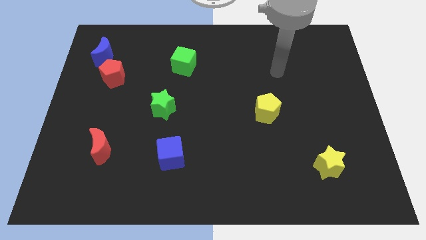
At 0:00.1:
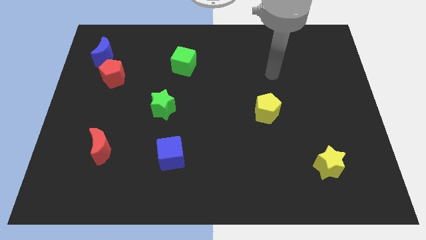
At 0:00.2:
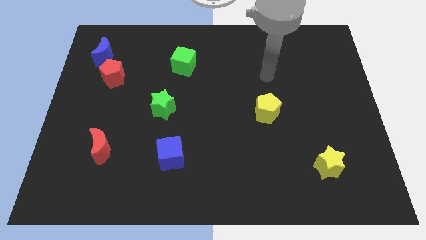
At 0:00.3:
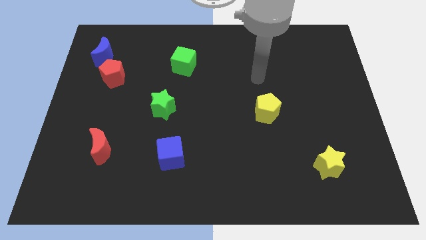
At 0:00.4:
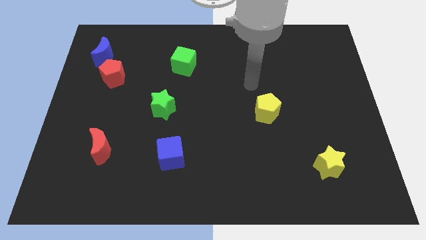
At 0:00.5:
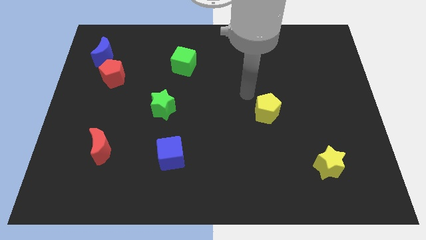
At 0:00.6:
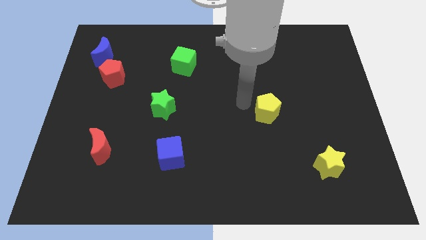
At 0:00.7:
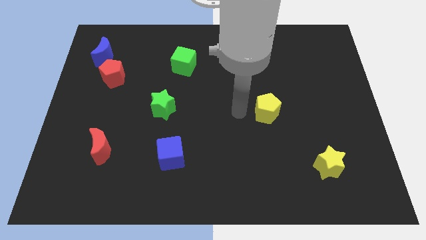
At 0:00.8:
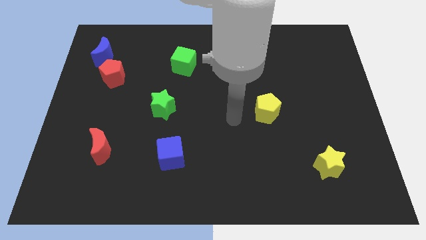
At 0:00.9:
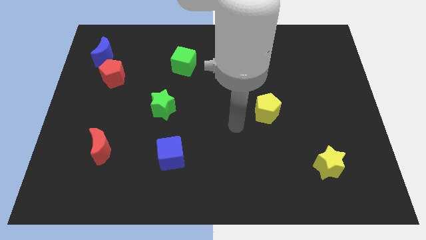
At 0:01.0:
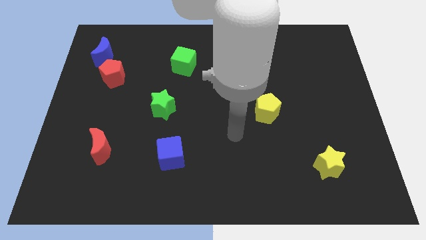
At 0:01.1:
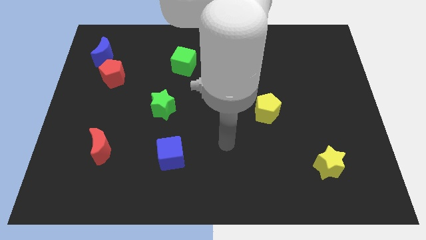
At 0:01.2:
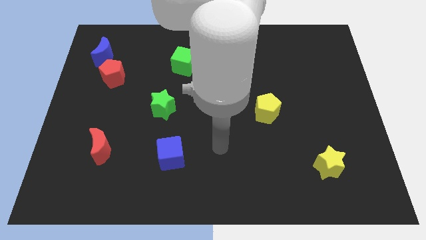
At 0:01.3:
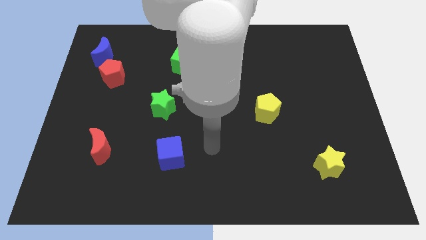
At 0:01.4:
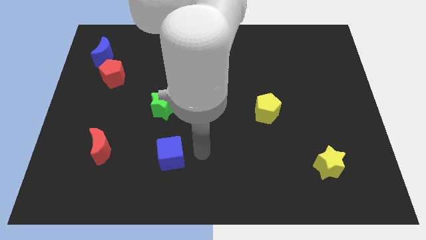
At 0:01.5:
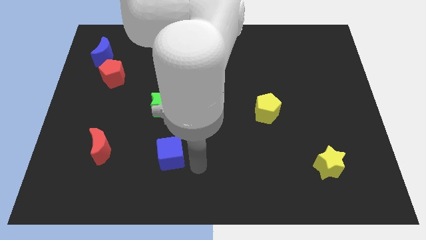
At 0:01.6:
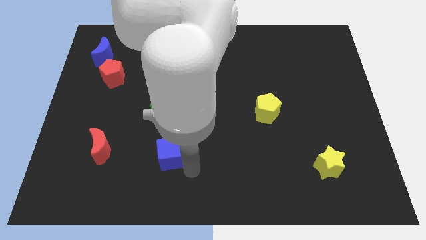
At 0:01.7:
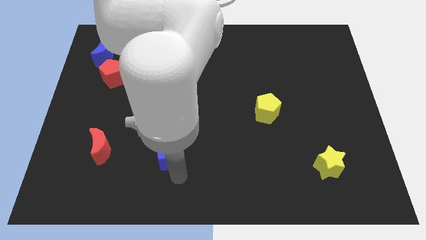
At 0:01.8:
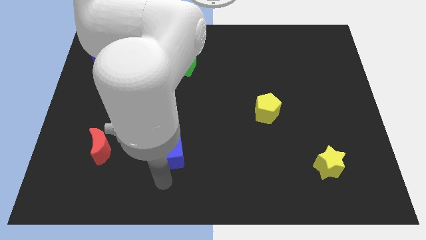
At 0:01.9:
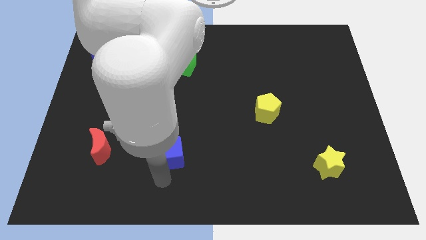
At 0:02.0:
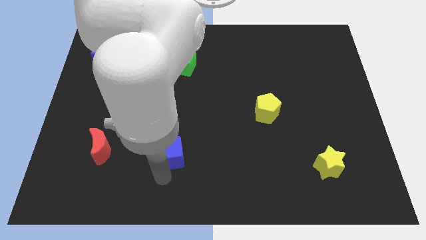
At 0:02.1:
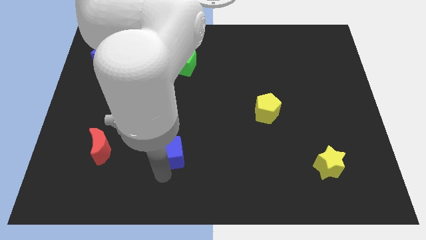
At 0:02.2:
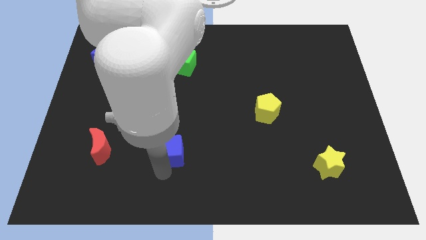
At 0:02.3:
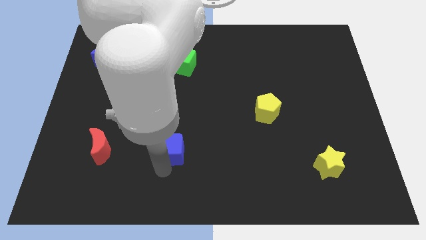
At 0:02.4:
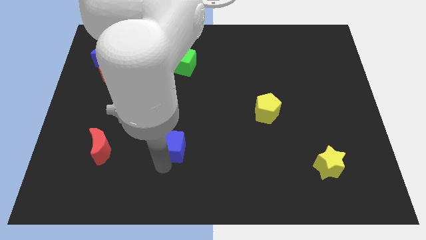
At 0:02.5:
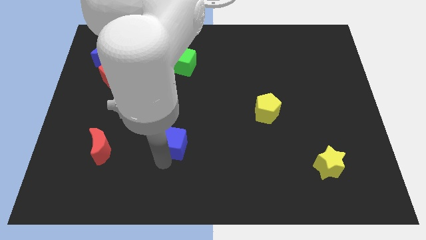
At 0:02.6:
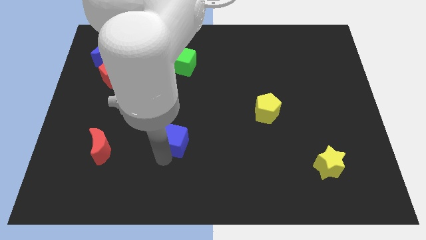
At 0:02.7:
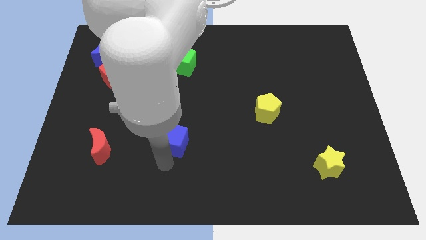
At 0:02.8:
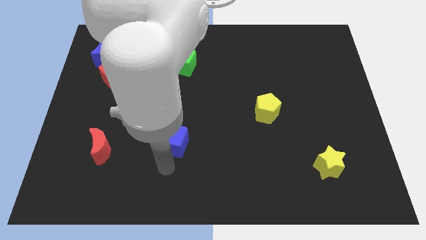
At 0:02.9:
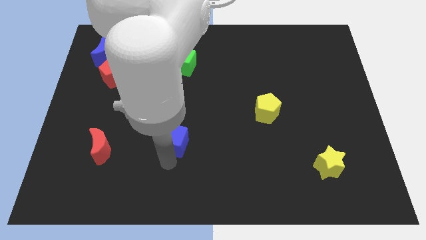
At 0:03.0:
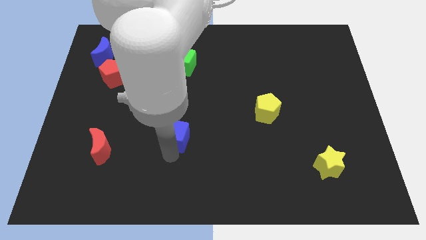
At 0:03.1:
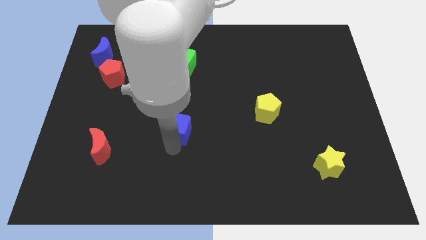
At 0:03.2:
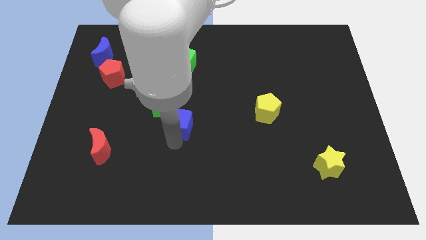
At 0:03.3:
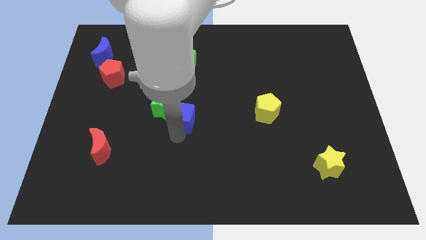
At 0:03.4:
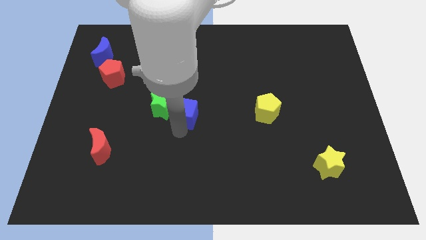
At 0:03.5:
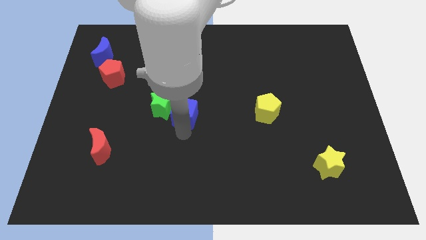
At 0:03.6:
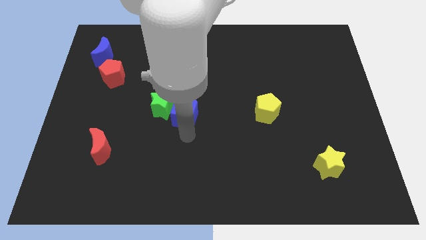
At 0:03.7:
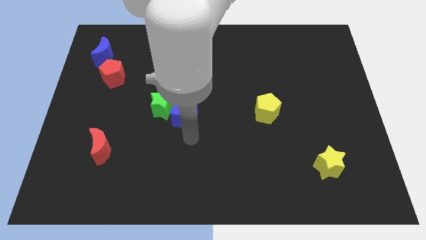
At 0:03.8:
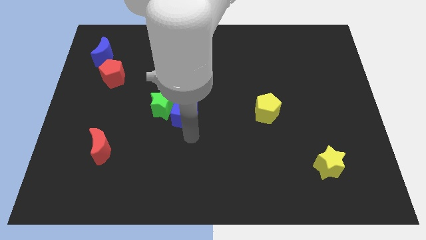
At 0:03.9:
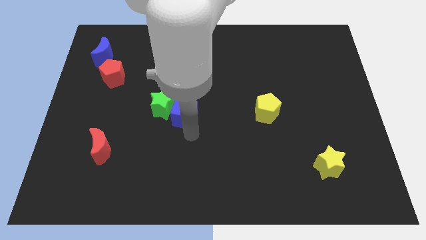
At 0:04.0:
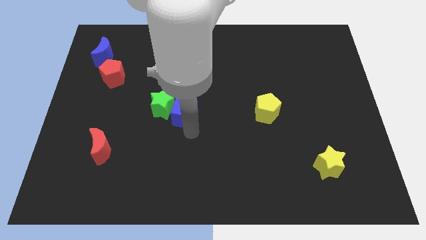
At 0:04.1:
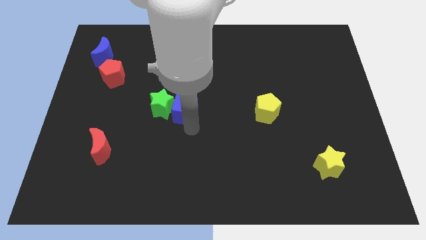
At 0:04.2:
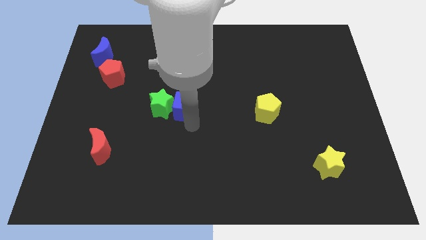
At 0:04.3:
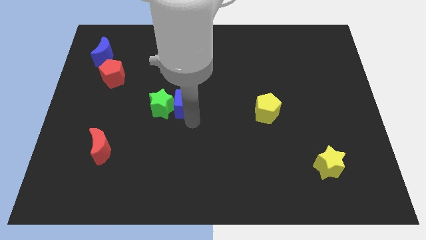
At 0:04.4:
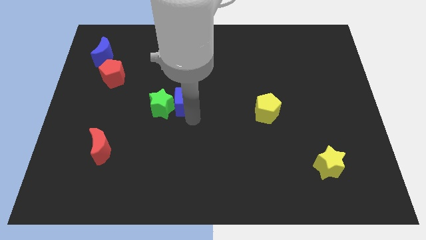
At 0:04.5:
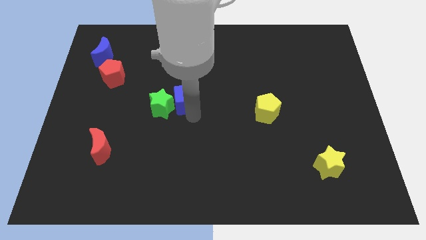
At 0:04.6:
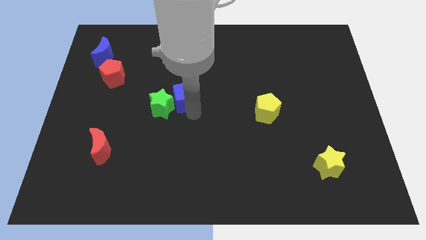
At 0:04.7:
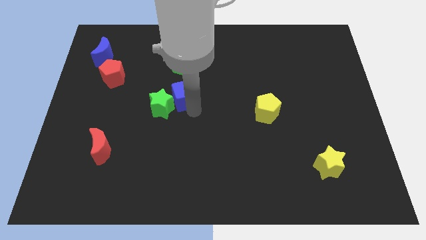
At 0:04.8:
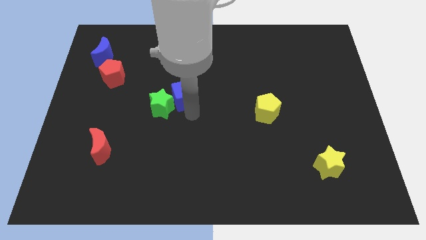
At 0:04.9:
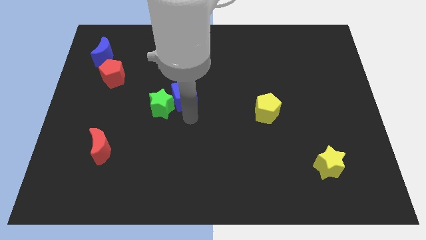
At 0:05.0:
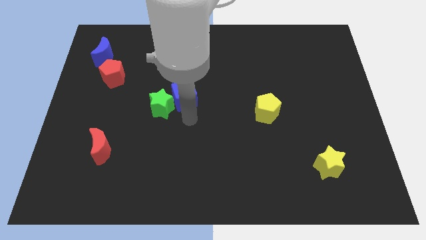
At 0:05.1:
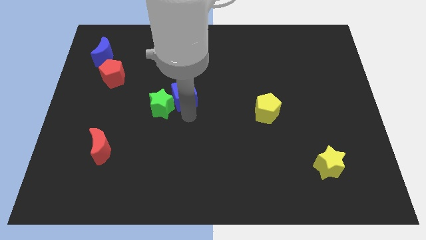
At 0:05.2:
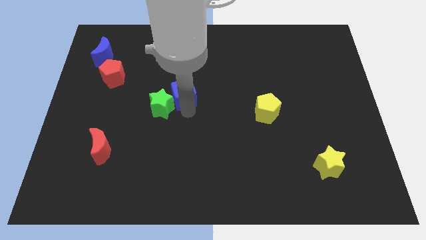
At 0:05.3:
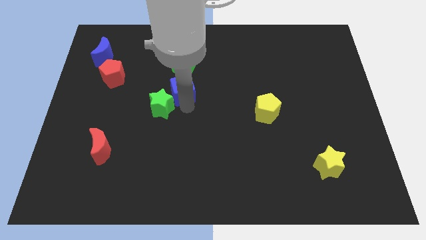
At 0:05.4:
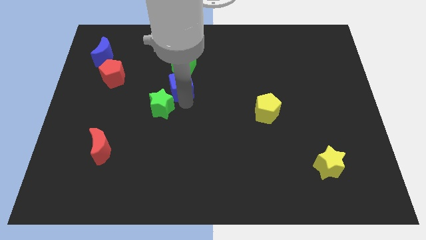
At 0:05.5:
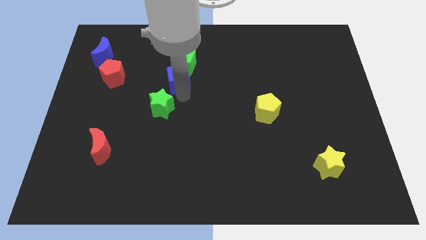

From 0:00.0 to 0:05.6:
move the blue cube next to the green cube

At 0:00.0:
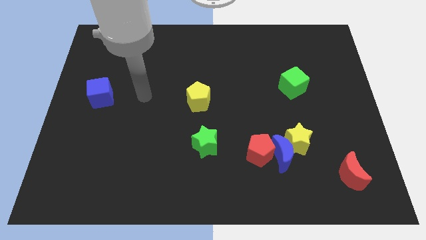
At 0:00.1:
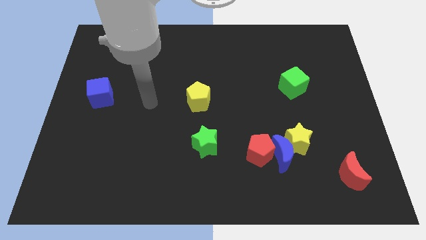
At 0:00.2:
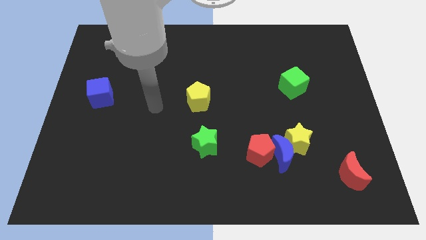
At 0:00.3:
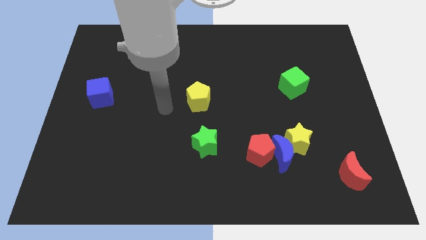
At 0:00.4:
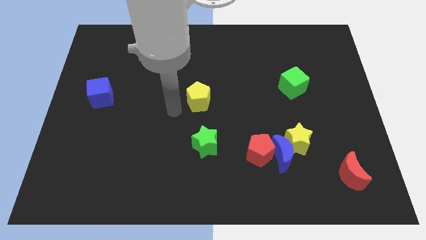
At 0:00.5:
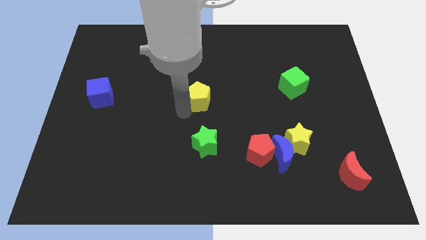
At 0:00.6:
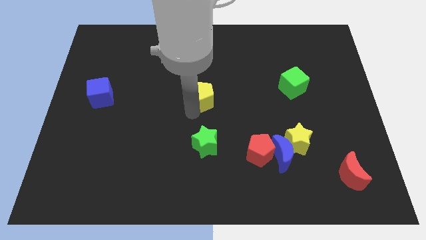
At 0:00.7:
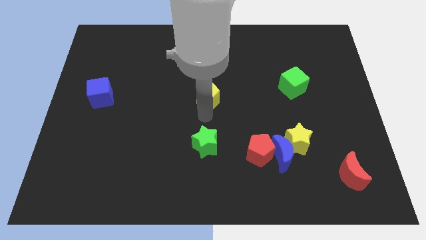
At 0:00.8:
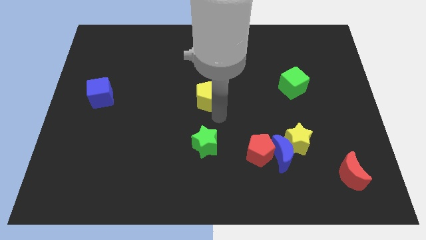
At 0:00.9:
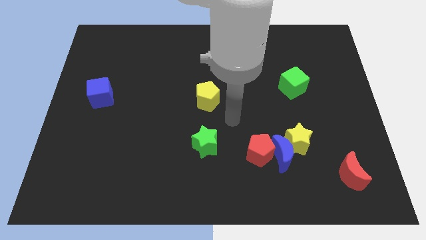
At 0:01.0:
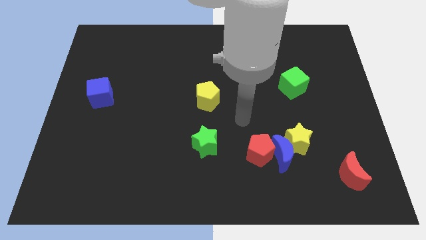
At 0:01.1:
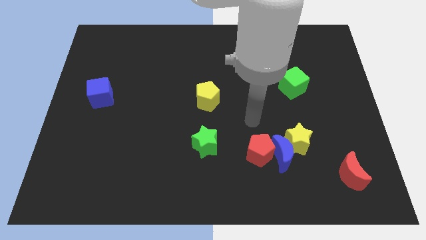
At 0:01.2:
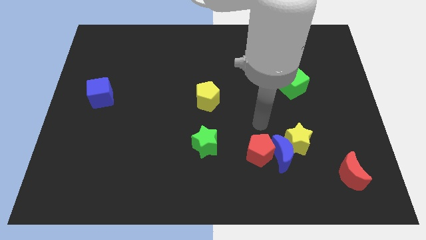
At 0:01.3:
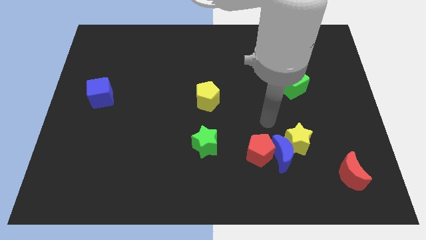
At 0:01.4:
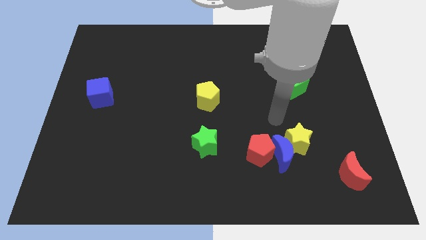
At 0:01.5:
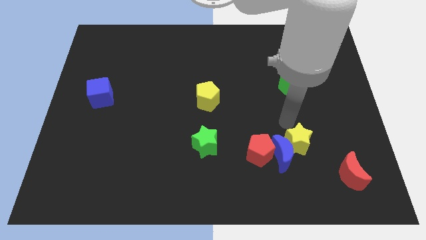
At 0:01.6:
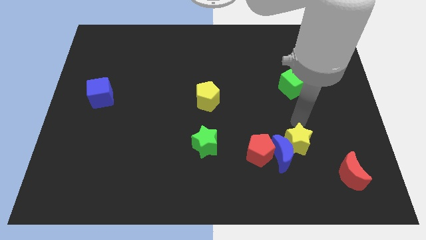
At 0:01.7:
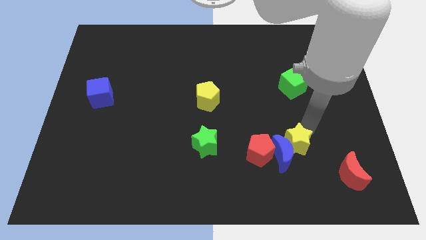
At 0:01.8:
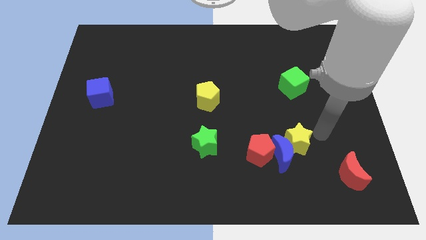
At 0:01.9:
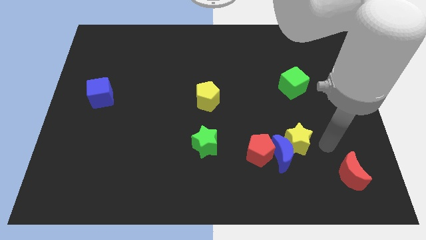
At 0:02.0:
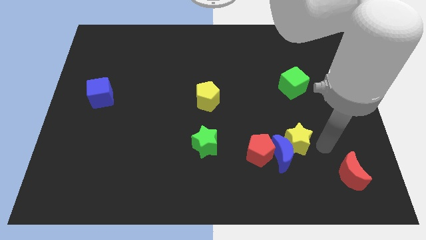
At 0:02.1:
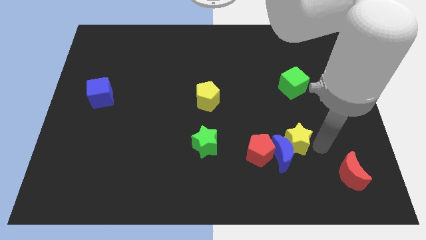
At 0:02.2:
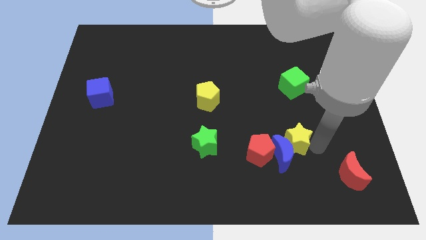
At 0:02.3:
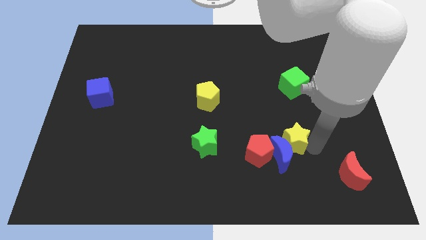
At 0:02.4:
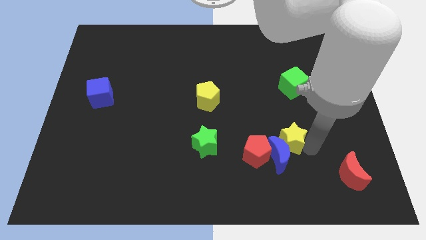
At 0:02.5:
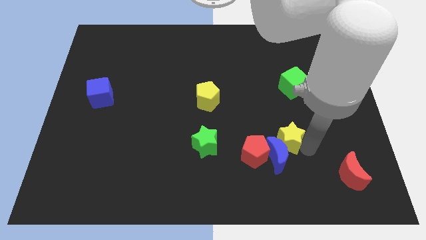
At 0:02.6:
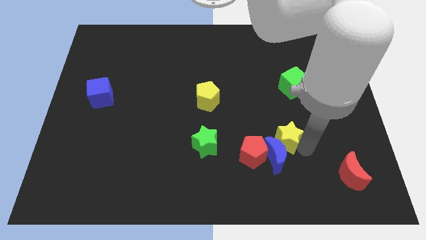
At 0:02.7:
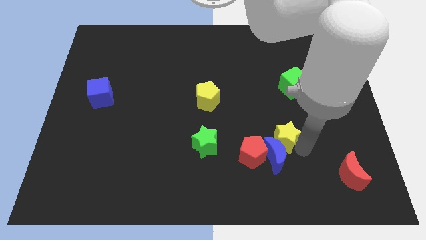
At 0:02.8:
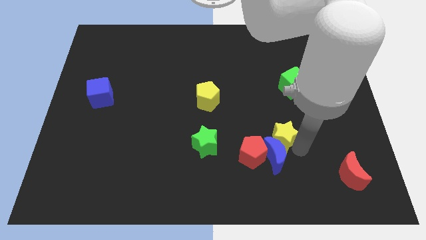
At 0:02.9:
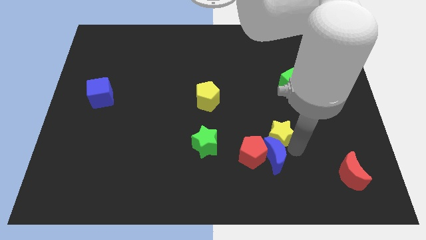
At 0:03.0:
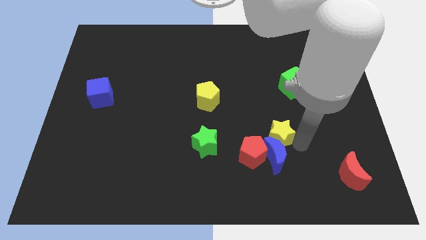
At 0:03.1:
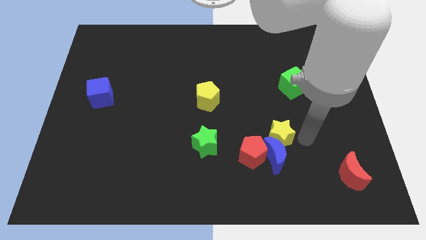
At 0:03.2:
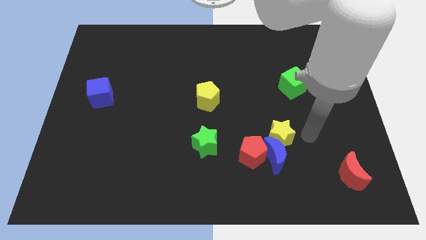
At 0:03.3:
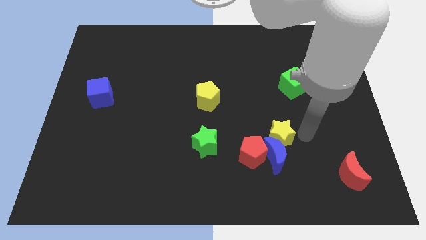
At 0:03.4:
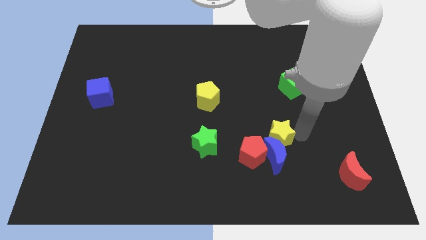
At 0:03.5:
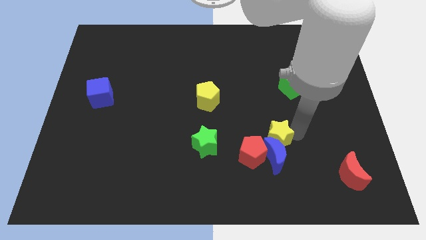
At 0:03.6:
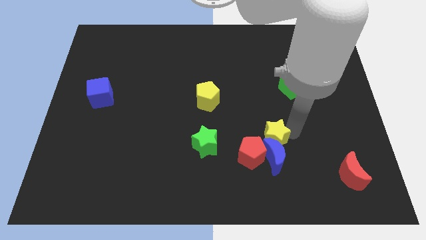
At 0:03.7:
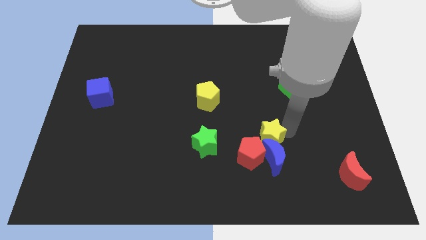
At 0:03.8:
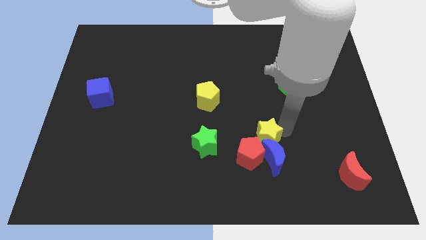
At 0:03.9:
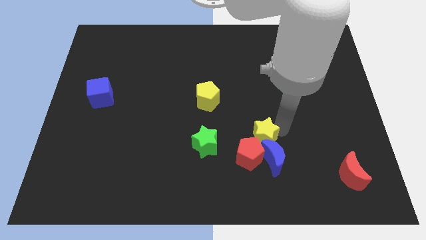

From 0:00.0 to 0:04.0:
push the yellow star next to the red pentagon
